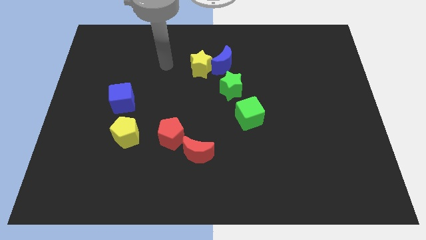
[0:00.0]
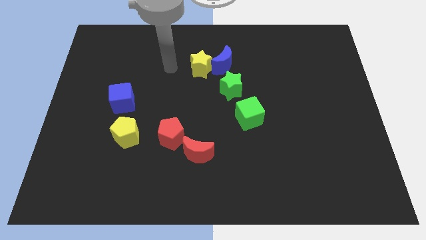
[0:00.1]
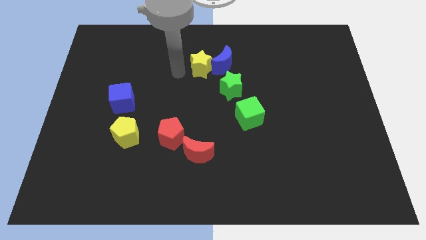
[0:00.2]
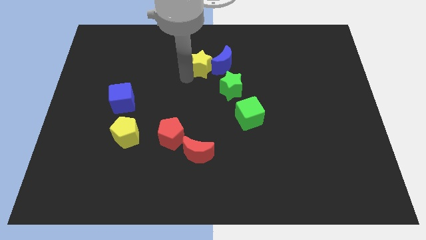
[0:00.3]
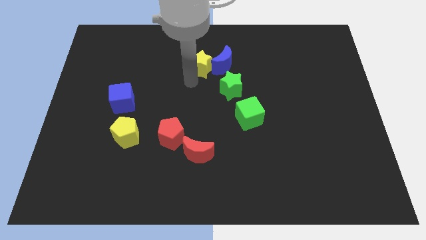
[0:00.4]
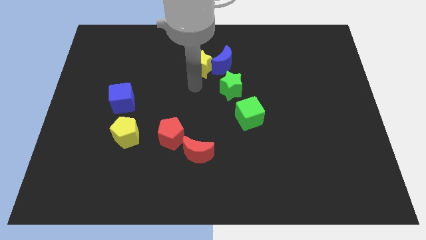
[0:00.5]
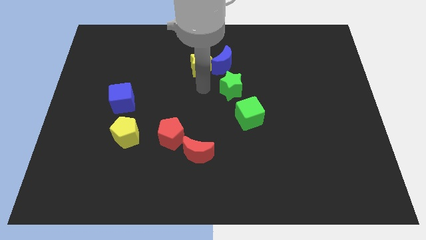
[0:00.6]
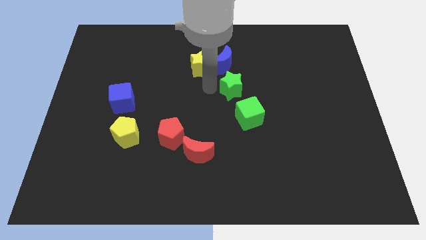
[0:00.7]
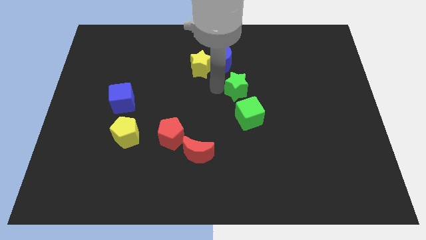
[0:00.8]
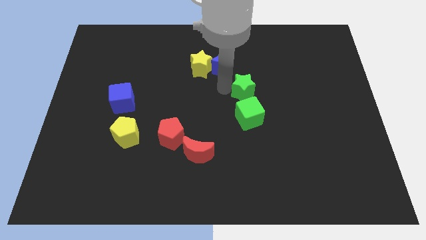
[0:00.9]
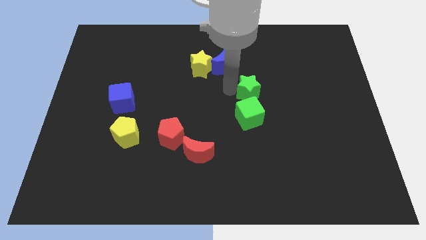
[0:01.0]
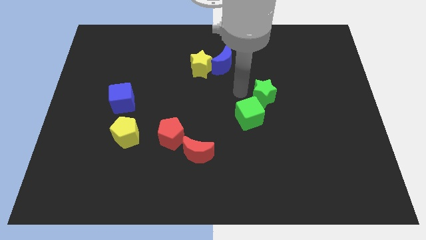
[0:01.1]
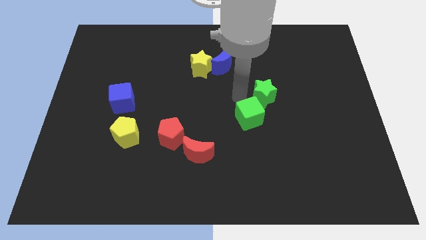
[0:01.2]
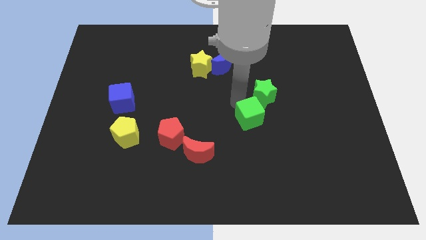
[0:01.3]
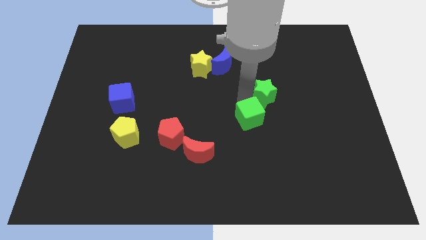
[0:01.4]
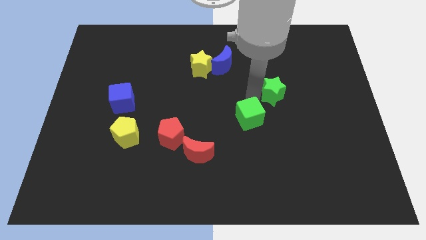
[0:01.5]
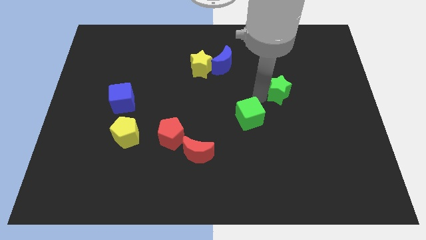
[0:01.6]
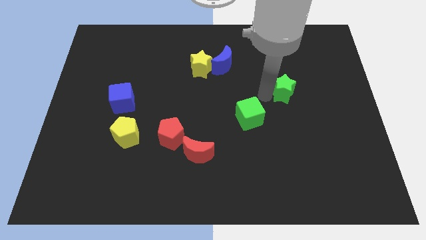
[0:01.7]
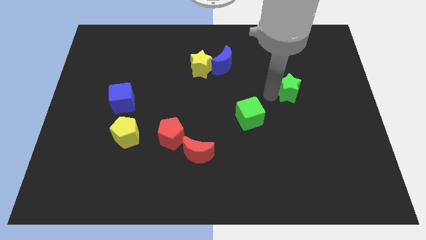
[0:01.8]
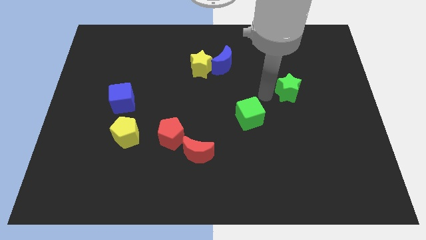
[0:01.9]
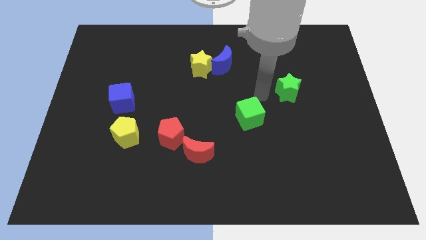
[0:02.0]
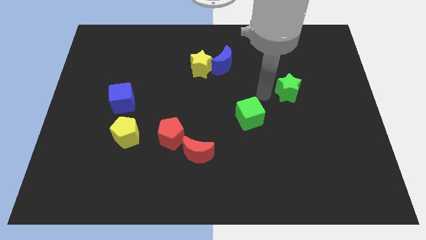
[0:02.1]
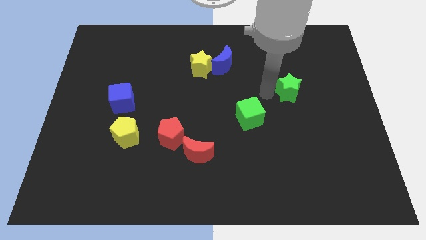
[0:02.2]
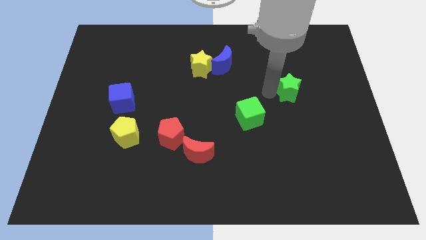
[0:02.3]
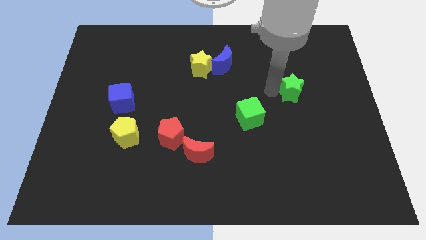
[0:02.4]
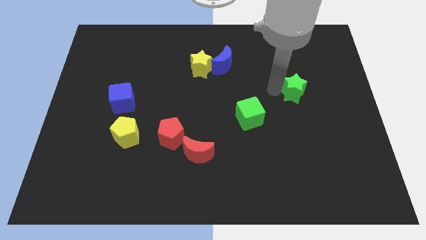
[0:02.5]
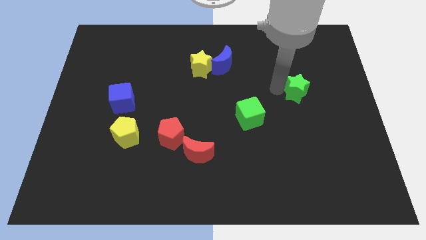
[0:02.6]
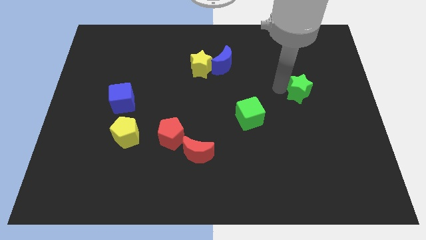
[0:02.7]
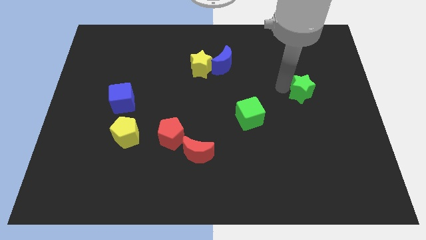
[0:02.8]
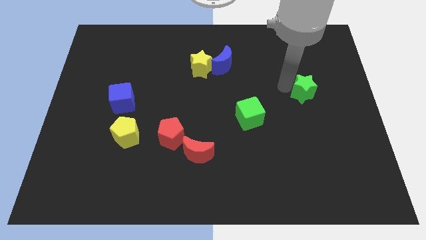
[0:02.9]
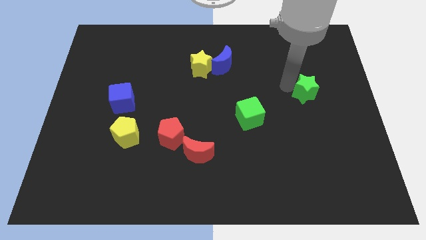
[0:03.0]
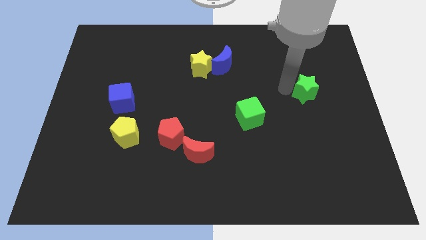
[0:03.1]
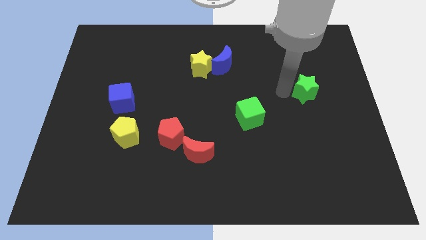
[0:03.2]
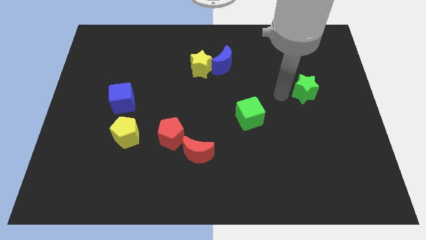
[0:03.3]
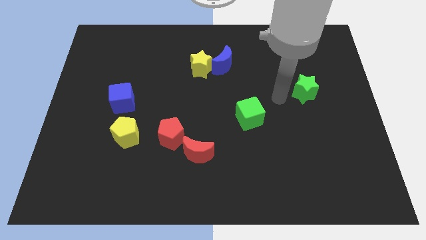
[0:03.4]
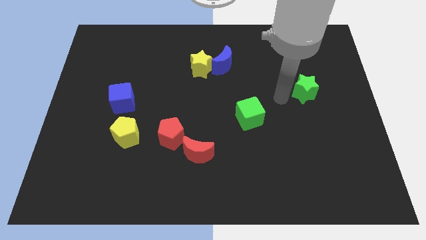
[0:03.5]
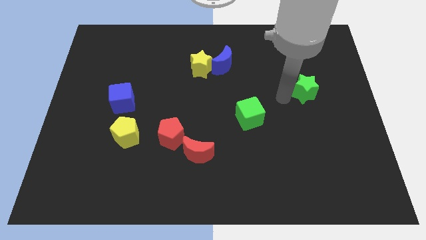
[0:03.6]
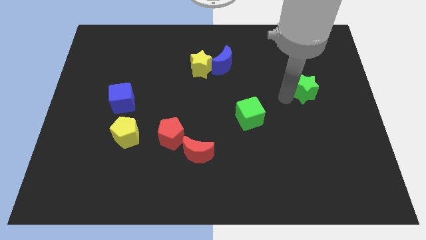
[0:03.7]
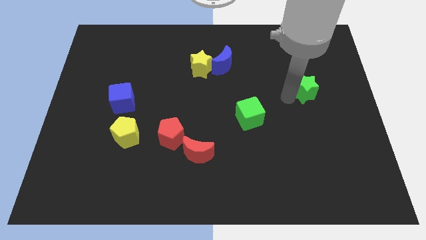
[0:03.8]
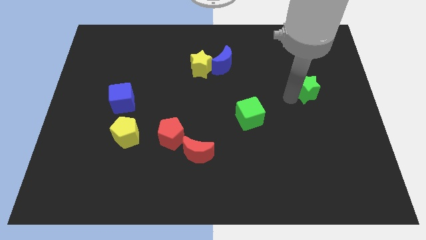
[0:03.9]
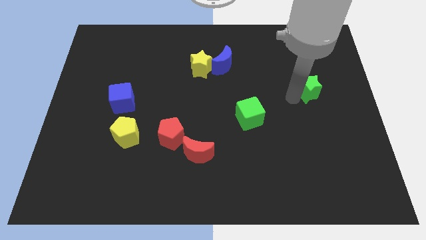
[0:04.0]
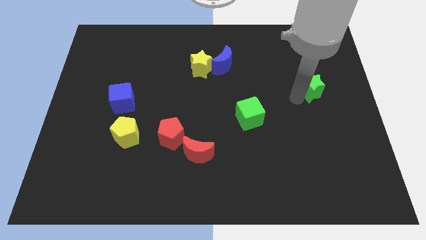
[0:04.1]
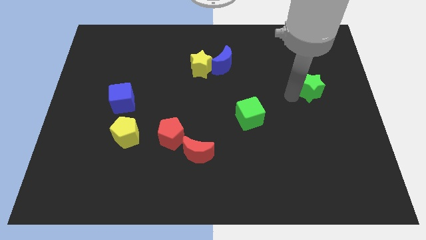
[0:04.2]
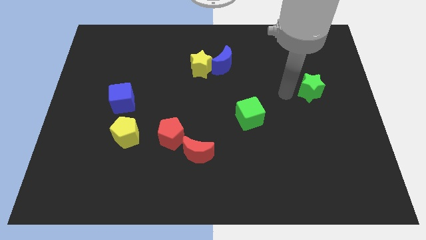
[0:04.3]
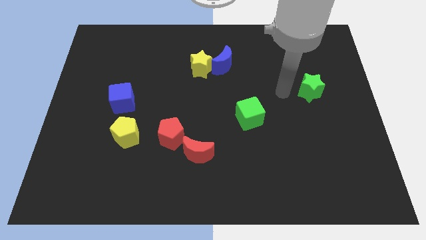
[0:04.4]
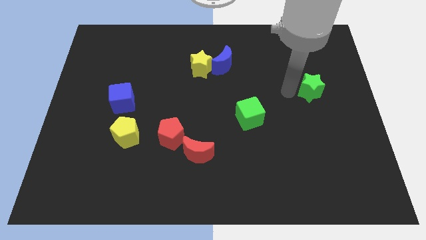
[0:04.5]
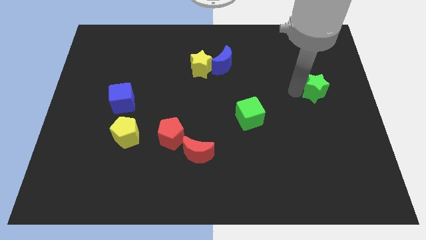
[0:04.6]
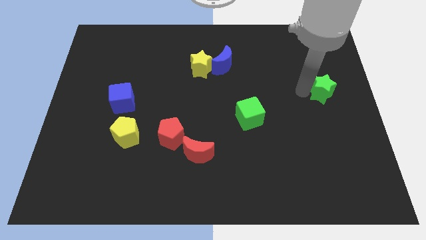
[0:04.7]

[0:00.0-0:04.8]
slide the green star to the right side

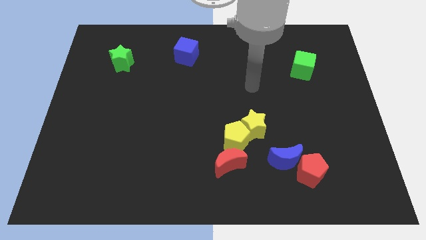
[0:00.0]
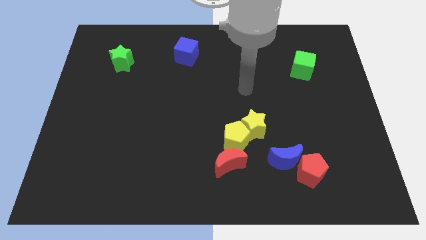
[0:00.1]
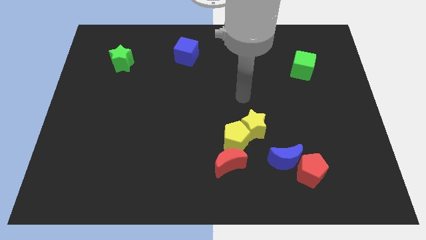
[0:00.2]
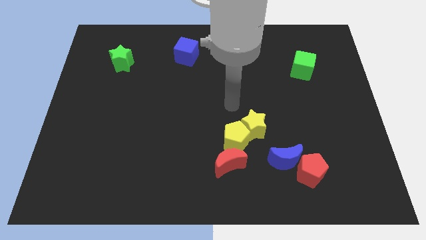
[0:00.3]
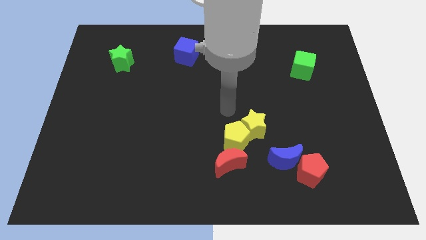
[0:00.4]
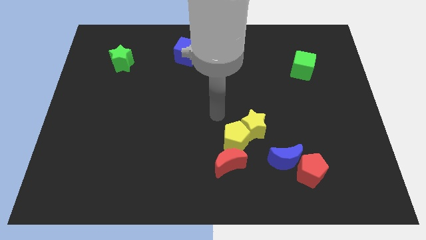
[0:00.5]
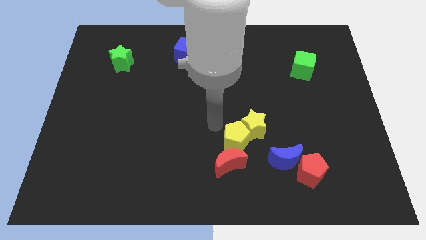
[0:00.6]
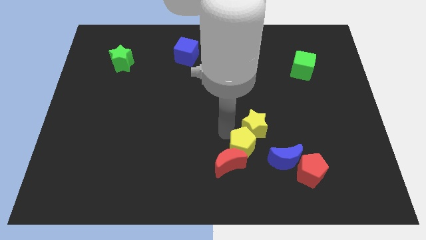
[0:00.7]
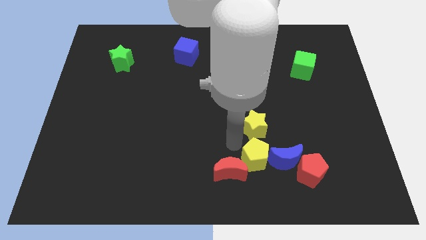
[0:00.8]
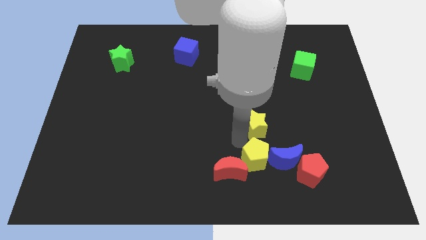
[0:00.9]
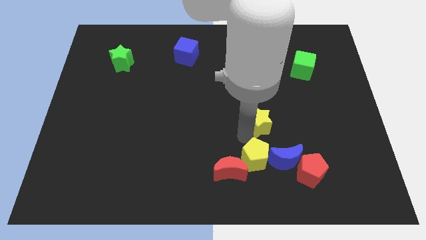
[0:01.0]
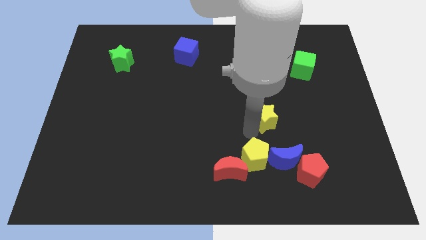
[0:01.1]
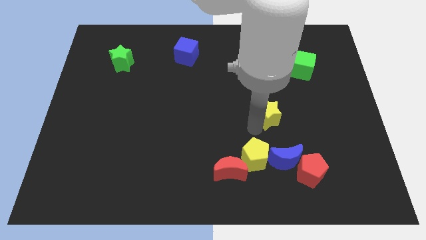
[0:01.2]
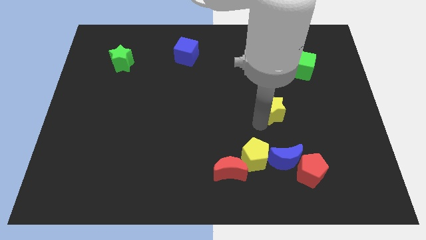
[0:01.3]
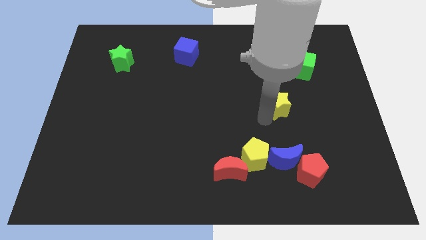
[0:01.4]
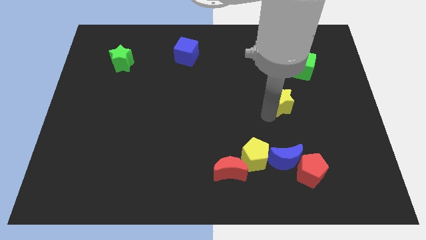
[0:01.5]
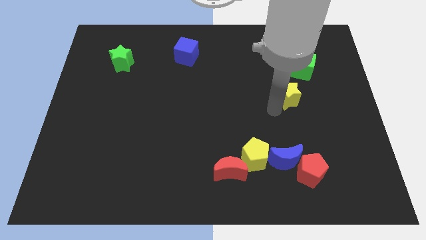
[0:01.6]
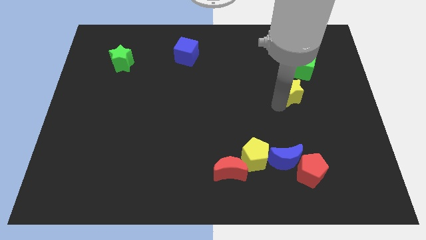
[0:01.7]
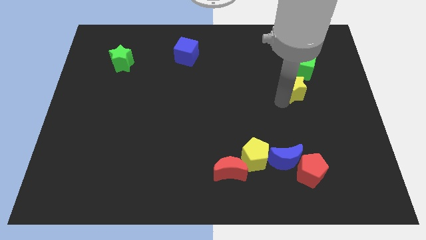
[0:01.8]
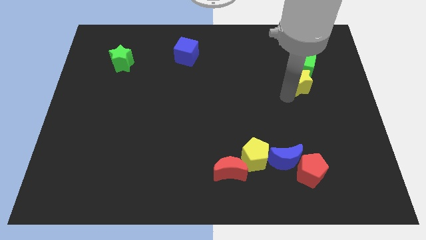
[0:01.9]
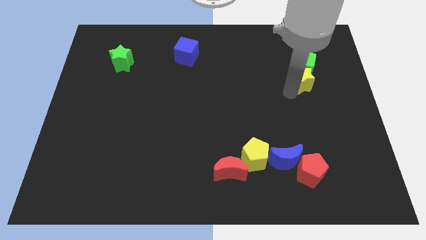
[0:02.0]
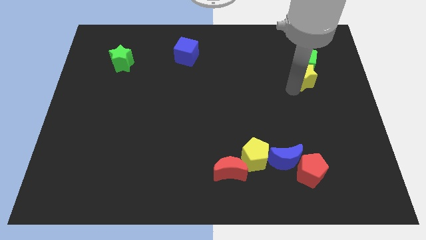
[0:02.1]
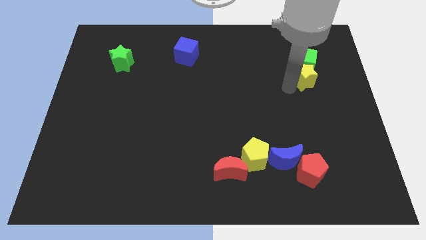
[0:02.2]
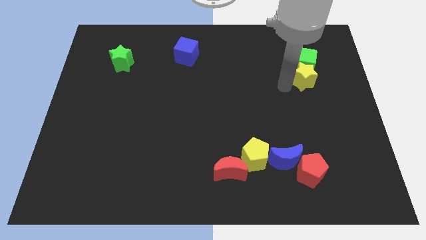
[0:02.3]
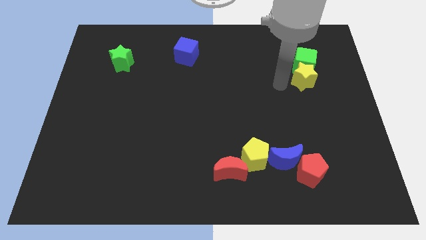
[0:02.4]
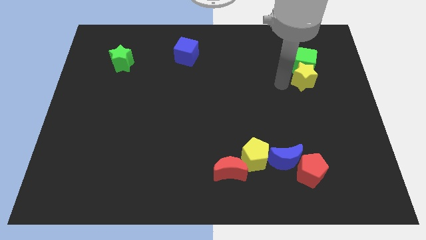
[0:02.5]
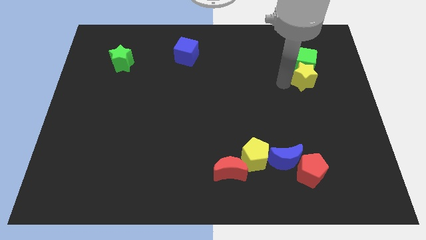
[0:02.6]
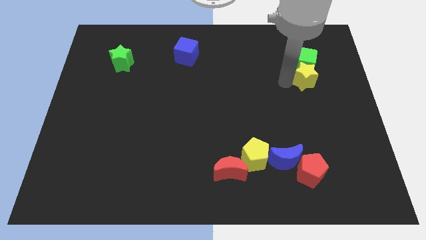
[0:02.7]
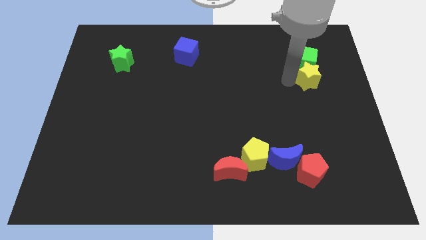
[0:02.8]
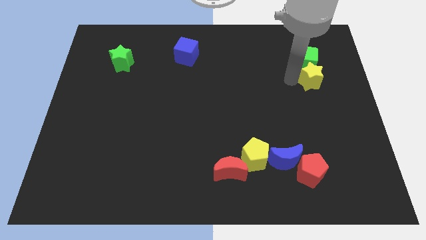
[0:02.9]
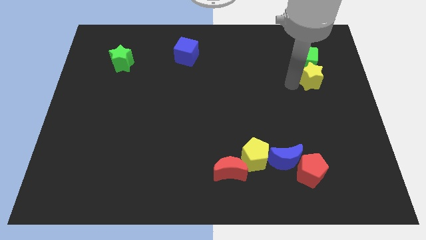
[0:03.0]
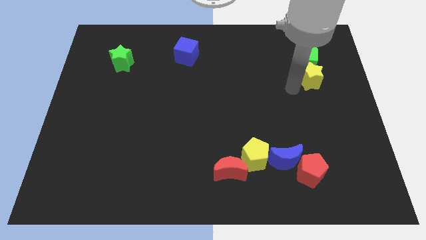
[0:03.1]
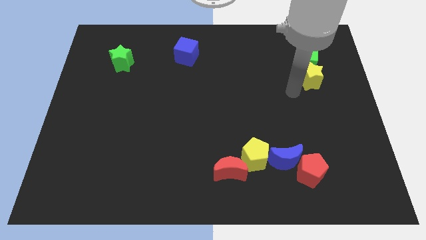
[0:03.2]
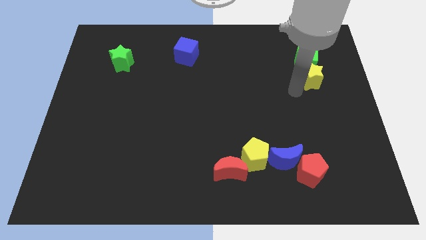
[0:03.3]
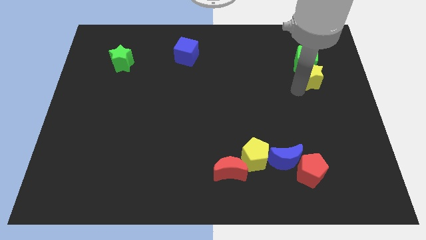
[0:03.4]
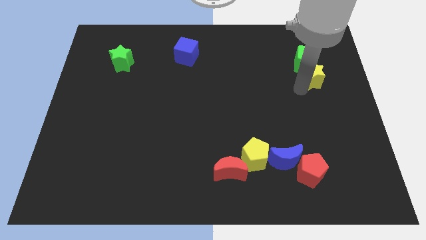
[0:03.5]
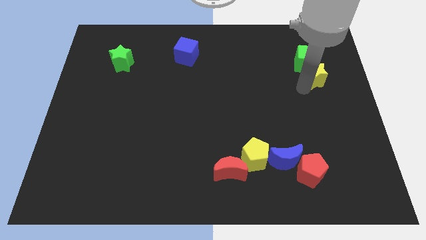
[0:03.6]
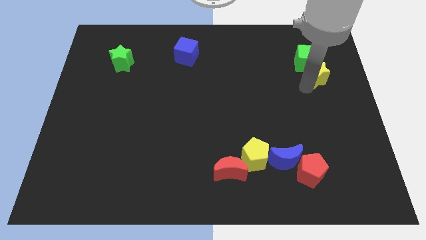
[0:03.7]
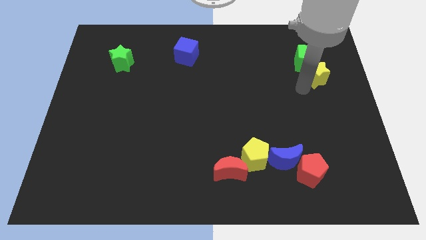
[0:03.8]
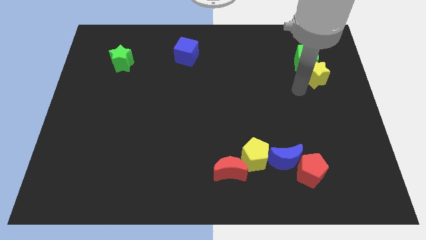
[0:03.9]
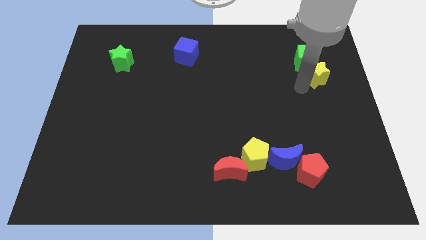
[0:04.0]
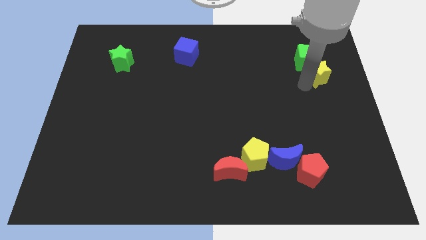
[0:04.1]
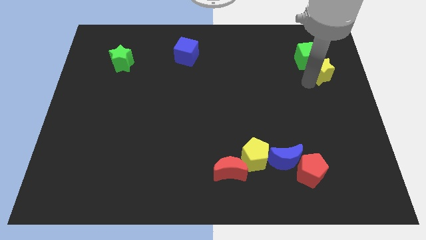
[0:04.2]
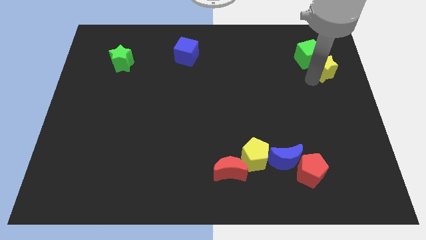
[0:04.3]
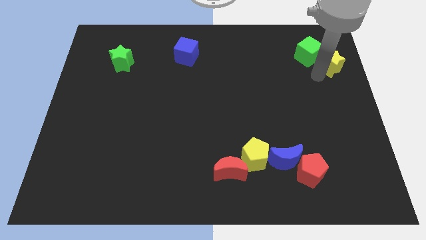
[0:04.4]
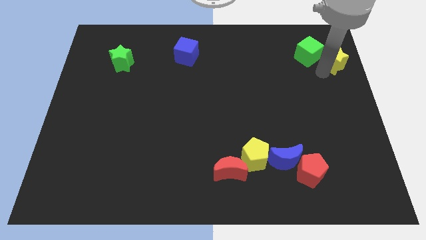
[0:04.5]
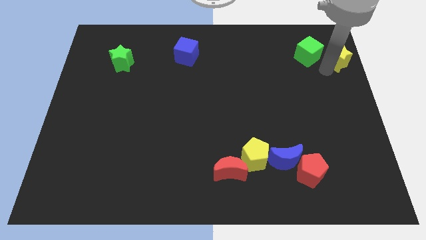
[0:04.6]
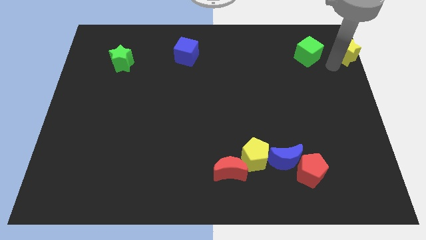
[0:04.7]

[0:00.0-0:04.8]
put the yellow star to the upper right corner
